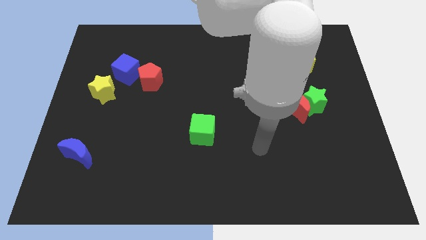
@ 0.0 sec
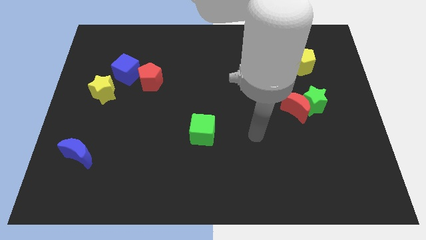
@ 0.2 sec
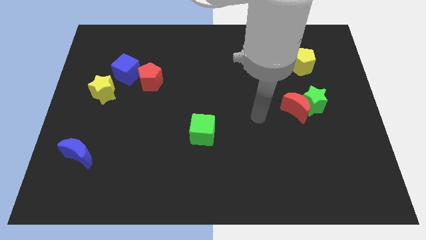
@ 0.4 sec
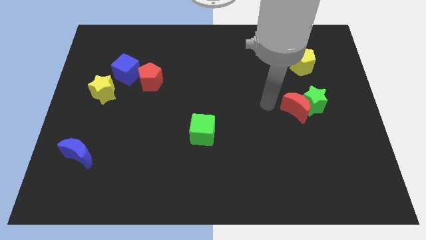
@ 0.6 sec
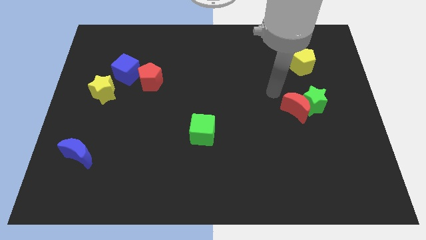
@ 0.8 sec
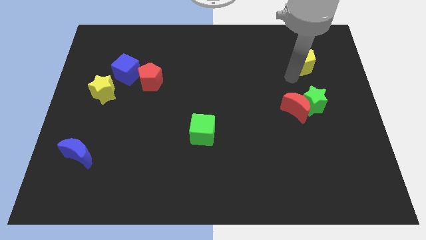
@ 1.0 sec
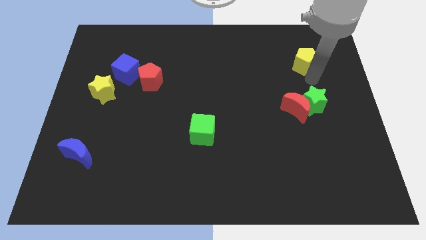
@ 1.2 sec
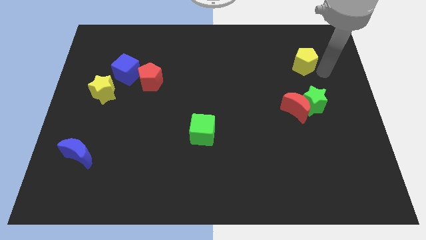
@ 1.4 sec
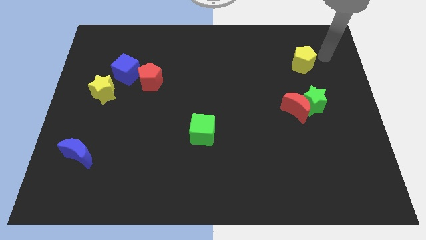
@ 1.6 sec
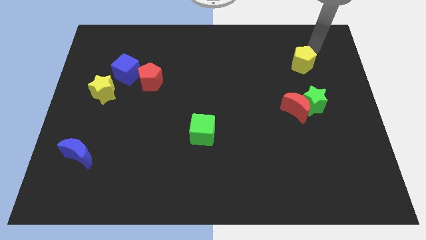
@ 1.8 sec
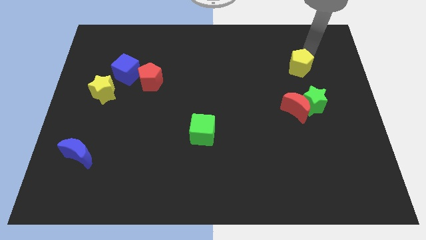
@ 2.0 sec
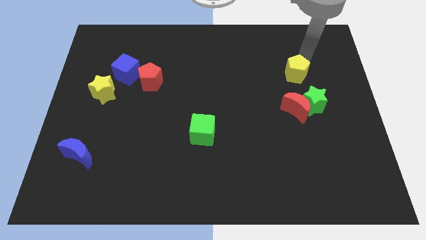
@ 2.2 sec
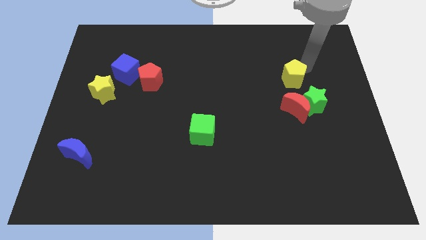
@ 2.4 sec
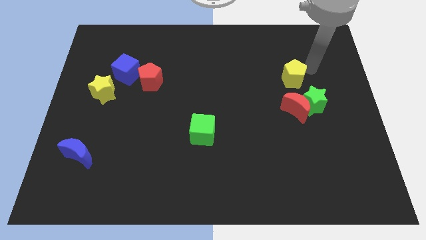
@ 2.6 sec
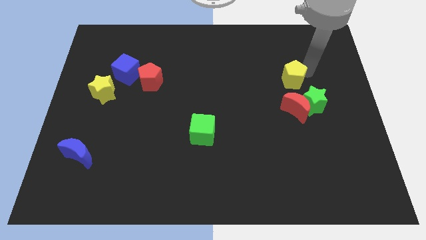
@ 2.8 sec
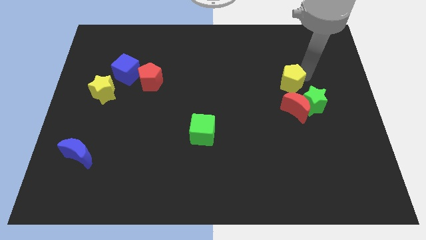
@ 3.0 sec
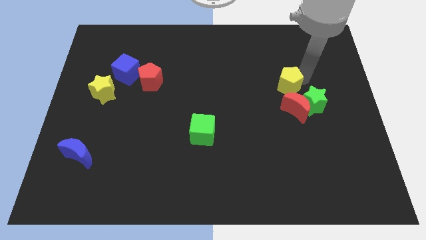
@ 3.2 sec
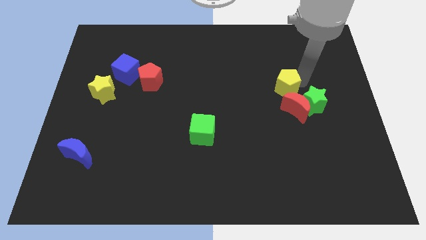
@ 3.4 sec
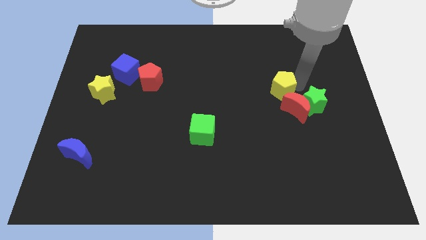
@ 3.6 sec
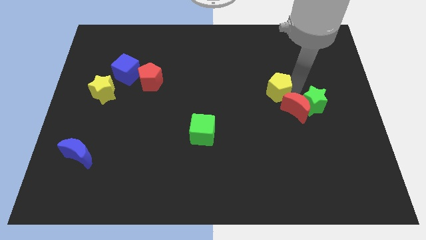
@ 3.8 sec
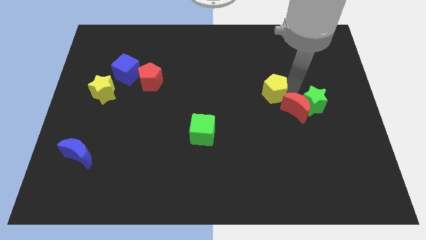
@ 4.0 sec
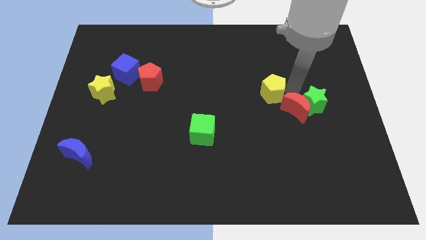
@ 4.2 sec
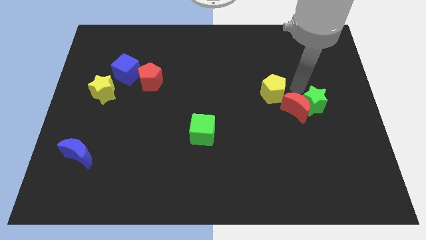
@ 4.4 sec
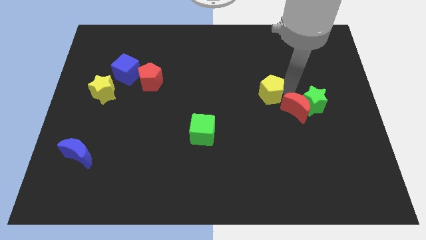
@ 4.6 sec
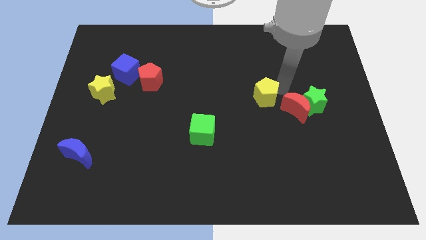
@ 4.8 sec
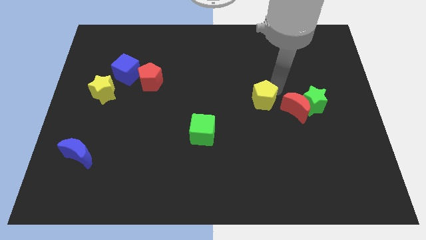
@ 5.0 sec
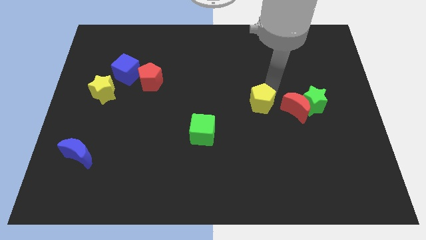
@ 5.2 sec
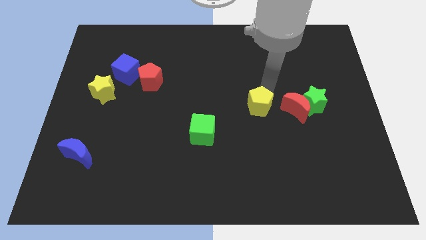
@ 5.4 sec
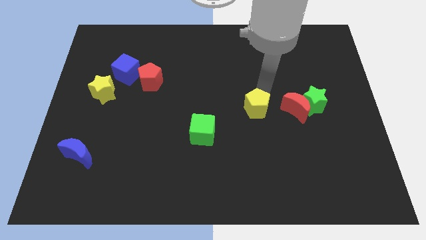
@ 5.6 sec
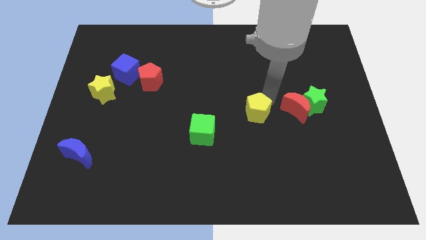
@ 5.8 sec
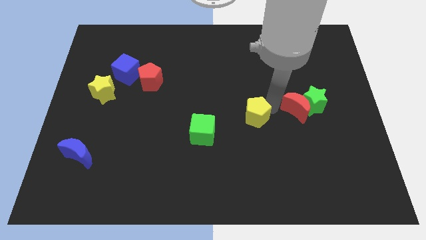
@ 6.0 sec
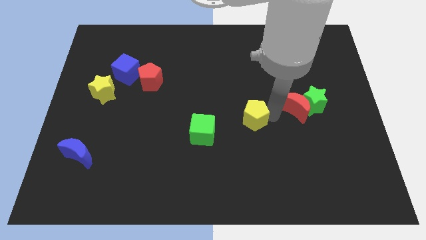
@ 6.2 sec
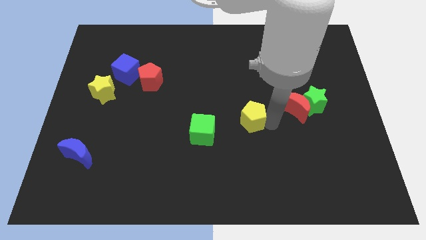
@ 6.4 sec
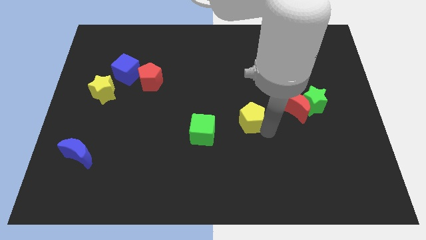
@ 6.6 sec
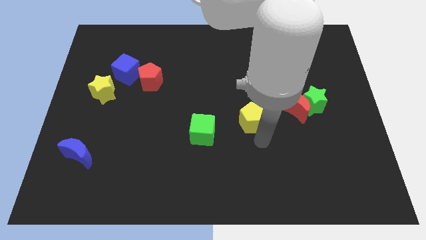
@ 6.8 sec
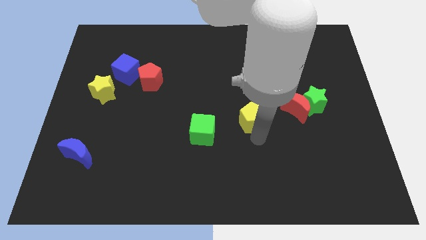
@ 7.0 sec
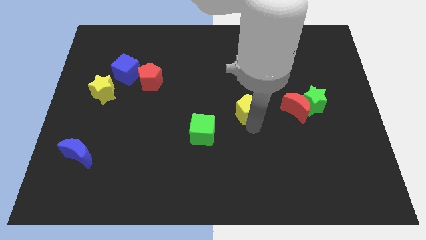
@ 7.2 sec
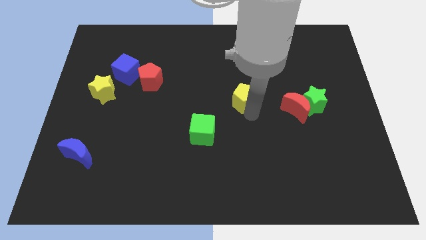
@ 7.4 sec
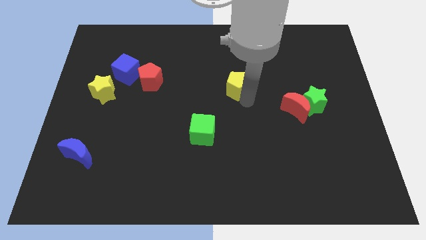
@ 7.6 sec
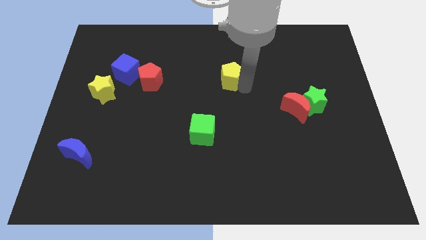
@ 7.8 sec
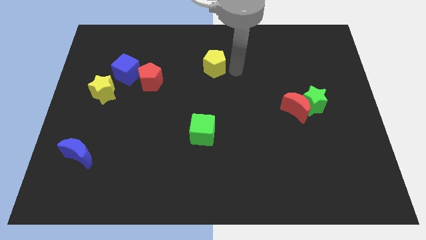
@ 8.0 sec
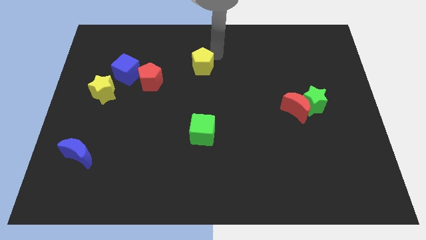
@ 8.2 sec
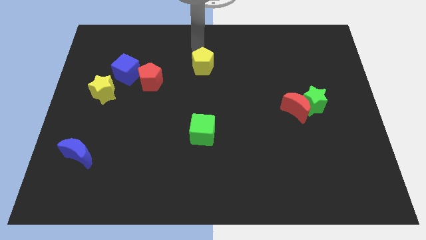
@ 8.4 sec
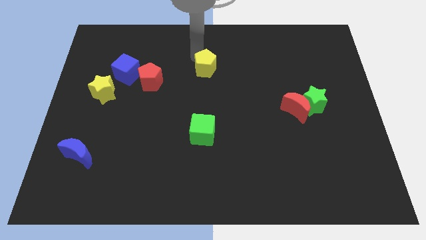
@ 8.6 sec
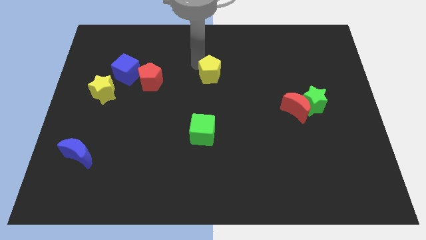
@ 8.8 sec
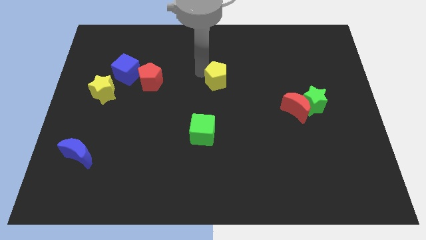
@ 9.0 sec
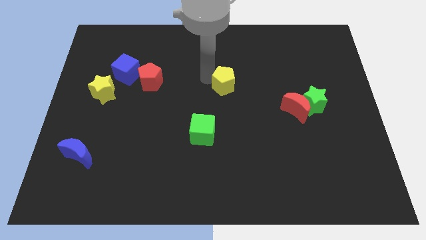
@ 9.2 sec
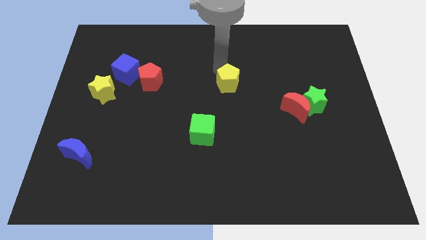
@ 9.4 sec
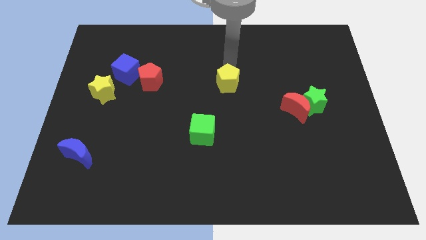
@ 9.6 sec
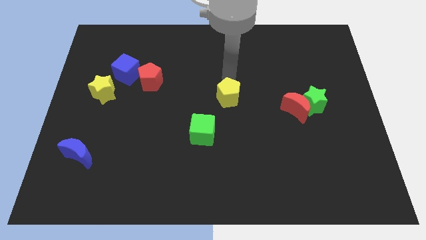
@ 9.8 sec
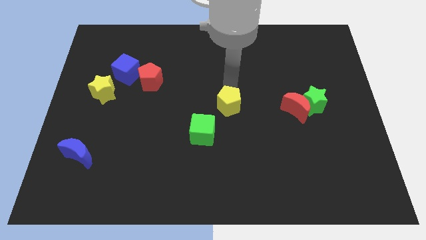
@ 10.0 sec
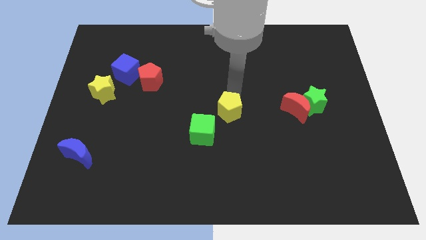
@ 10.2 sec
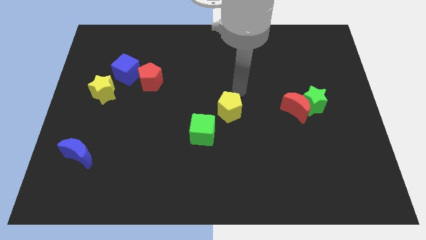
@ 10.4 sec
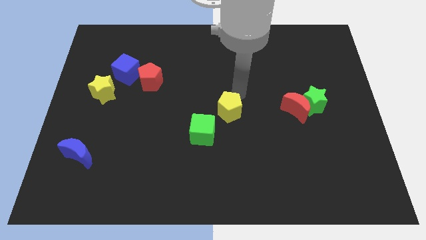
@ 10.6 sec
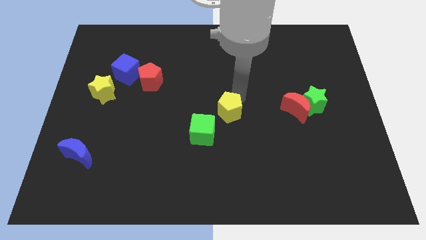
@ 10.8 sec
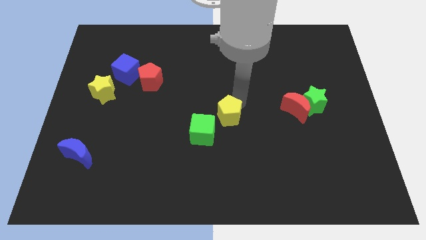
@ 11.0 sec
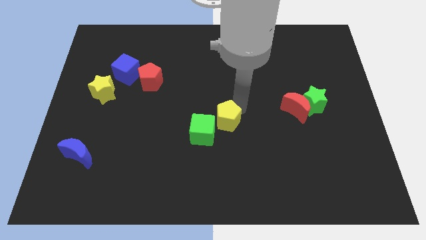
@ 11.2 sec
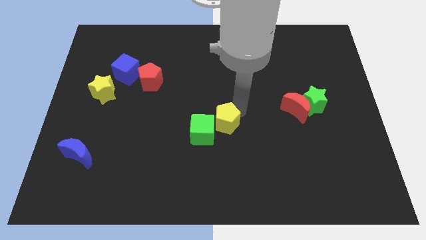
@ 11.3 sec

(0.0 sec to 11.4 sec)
put the yellow pentagon close to the green cube

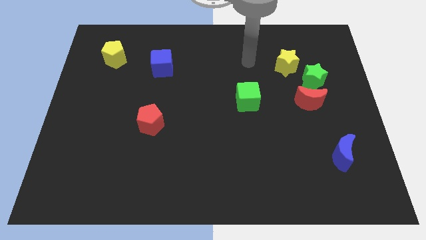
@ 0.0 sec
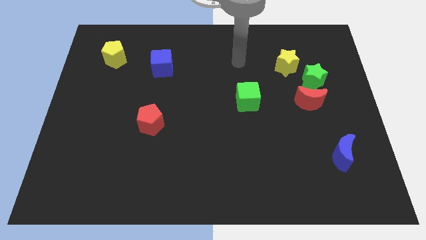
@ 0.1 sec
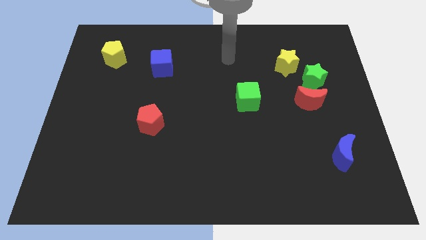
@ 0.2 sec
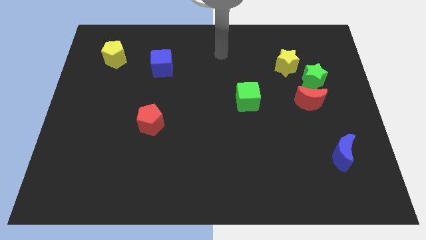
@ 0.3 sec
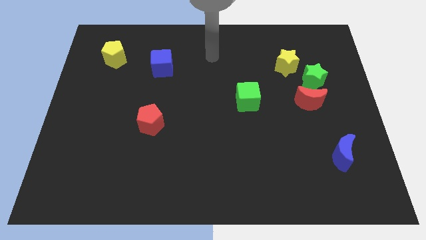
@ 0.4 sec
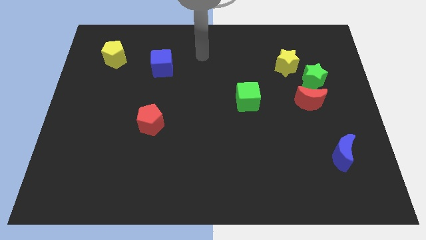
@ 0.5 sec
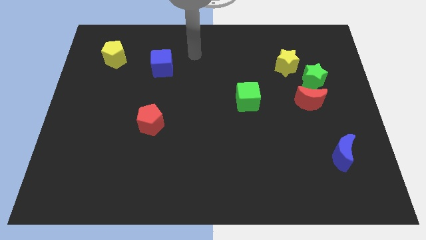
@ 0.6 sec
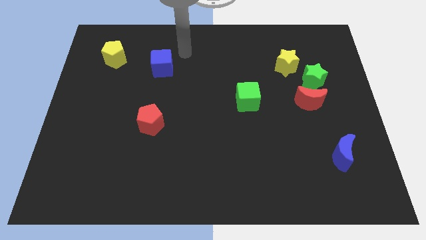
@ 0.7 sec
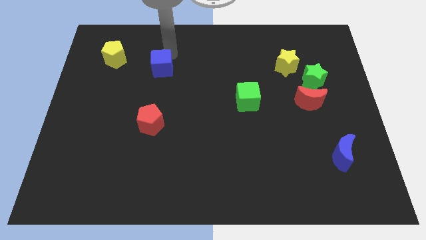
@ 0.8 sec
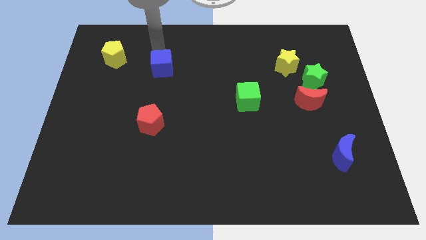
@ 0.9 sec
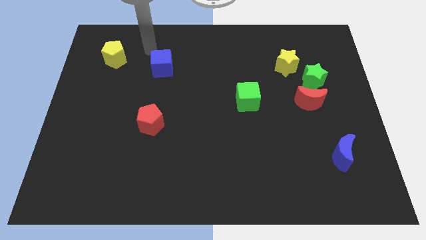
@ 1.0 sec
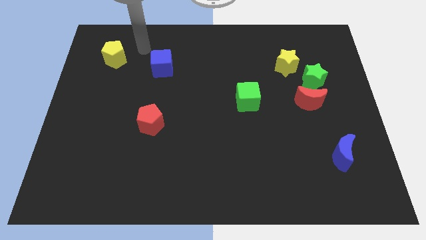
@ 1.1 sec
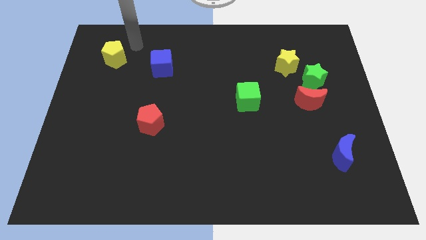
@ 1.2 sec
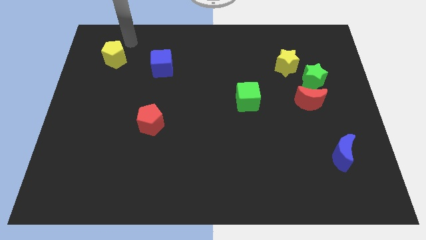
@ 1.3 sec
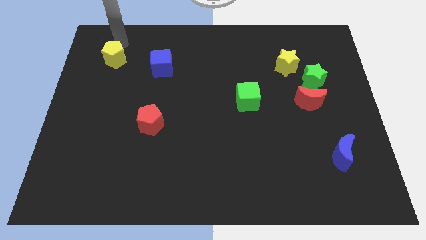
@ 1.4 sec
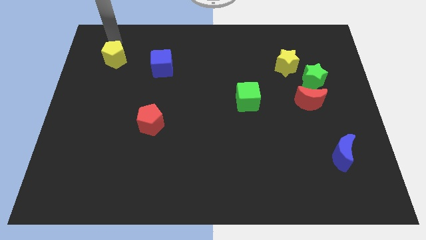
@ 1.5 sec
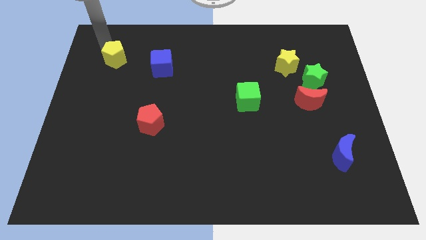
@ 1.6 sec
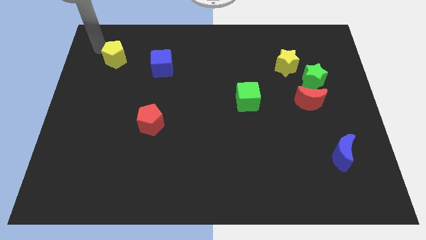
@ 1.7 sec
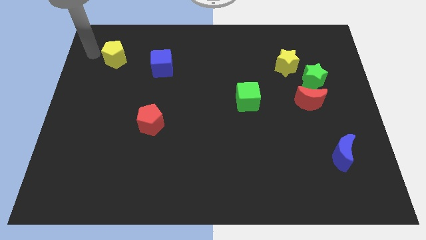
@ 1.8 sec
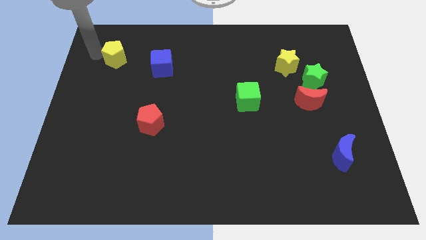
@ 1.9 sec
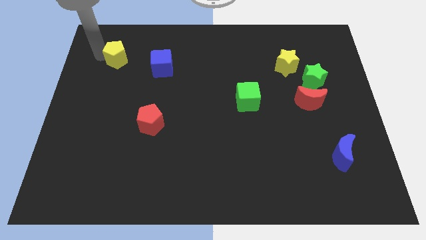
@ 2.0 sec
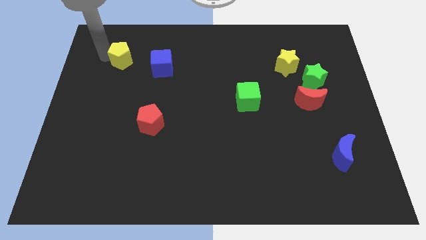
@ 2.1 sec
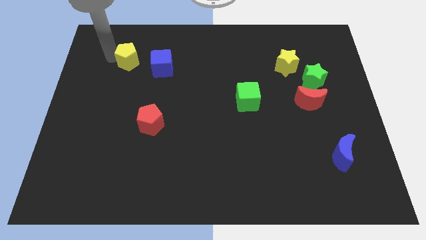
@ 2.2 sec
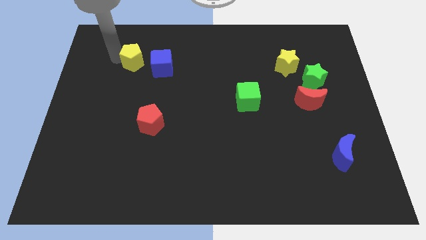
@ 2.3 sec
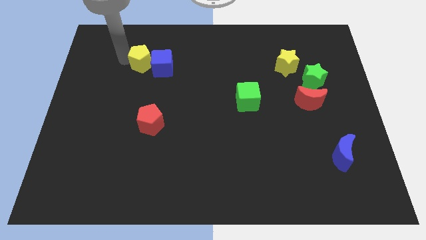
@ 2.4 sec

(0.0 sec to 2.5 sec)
put the yellow pentagon towards the blue cube
